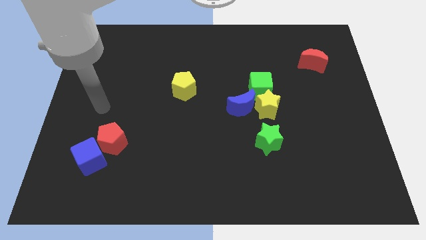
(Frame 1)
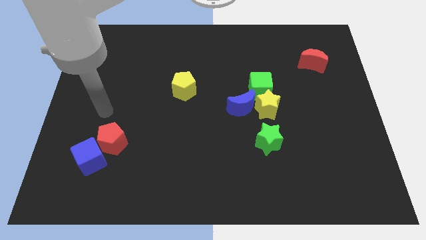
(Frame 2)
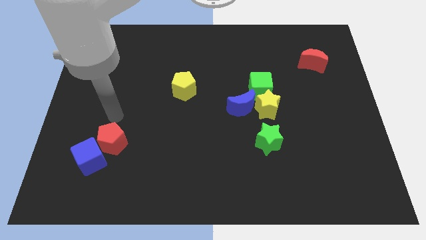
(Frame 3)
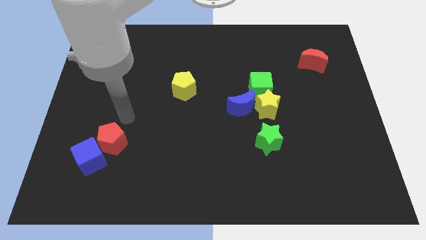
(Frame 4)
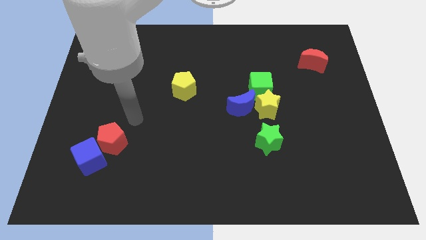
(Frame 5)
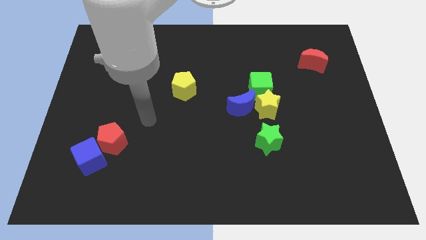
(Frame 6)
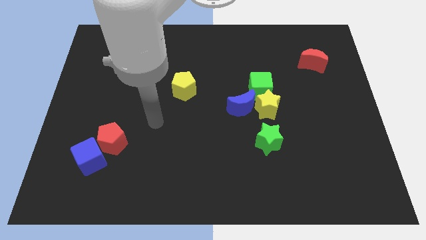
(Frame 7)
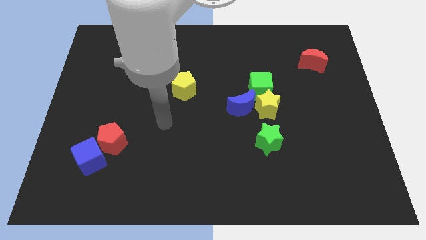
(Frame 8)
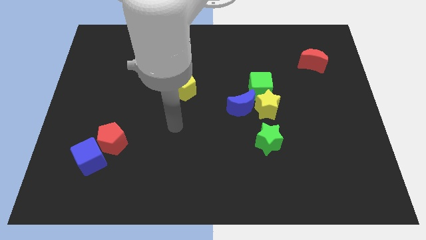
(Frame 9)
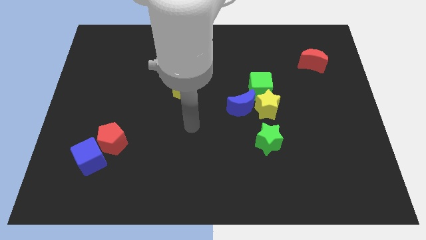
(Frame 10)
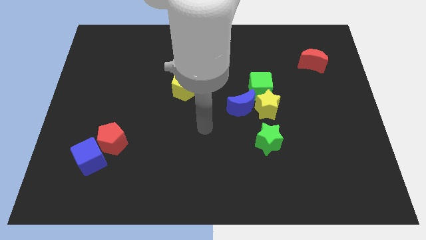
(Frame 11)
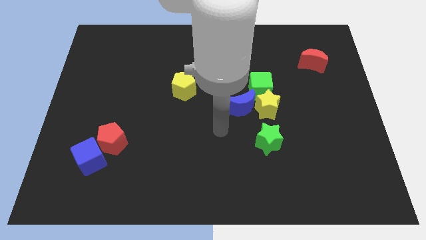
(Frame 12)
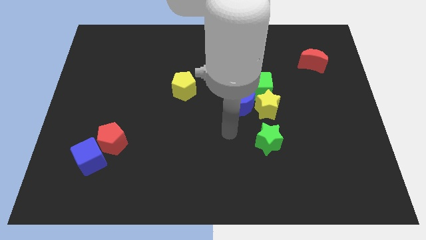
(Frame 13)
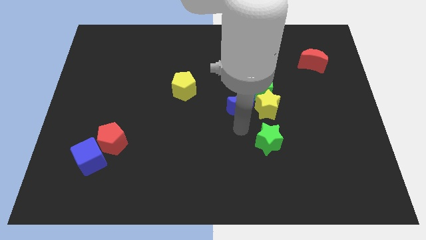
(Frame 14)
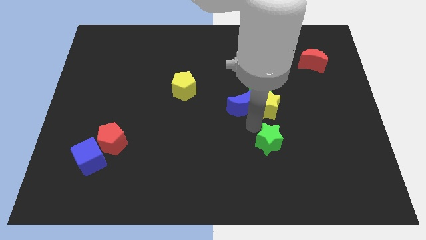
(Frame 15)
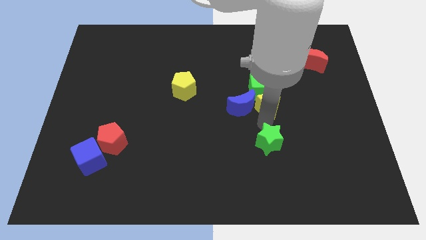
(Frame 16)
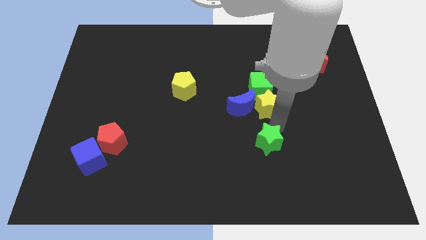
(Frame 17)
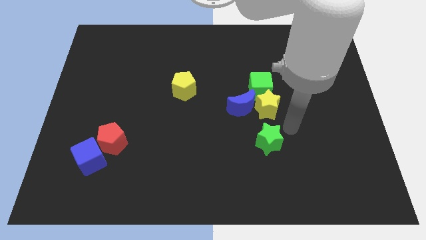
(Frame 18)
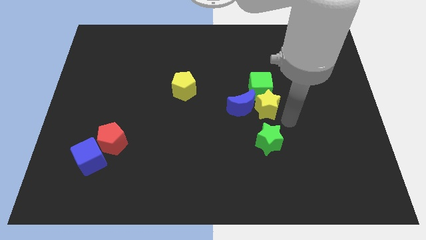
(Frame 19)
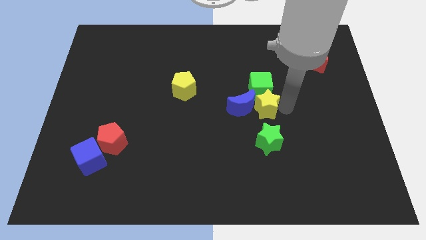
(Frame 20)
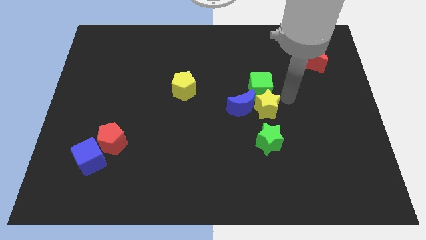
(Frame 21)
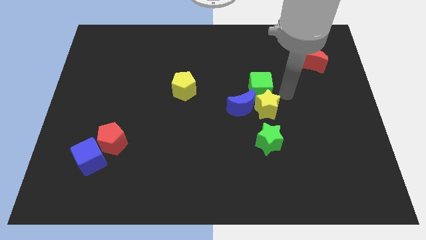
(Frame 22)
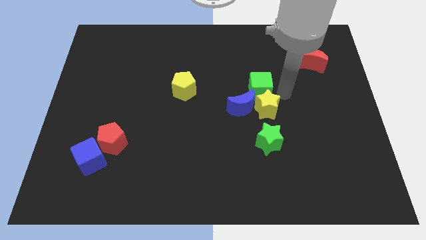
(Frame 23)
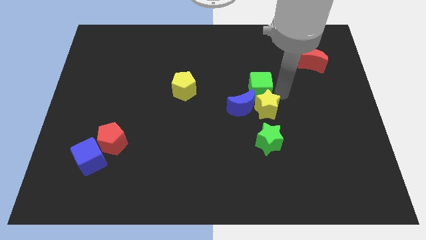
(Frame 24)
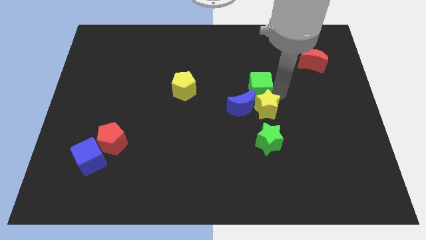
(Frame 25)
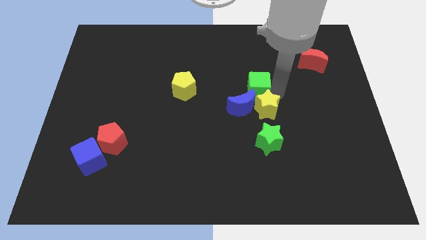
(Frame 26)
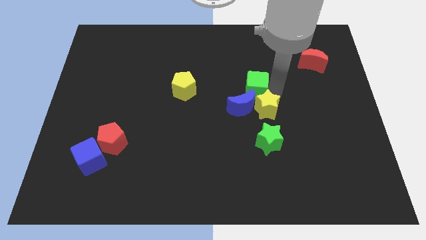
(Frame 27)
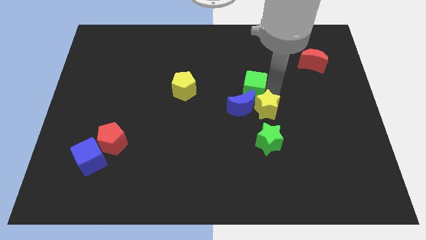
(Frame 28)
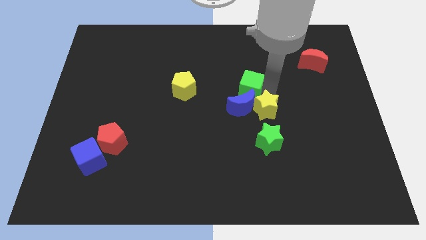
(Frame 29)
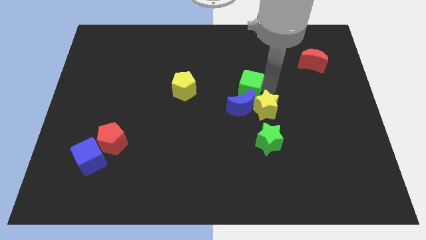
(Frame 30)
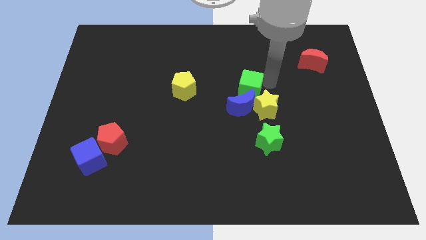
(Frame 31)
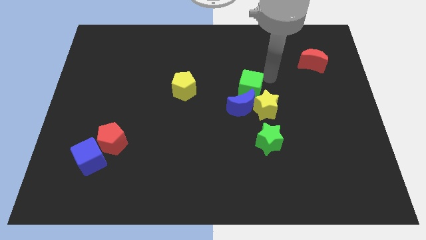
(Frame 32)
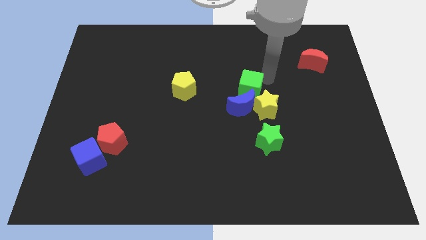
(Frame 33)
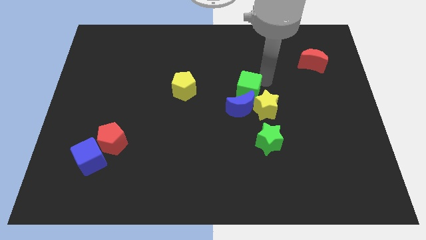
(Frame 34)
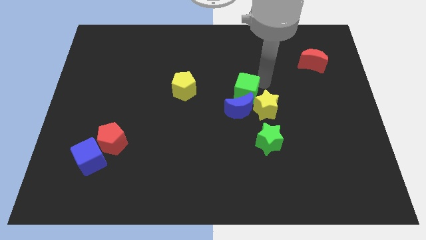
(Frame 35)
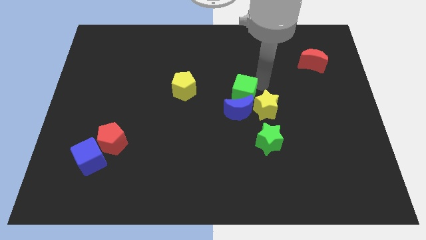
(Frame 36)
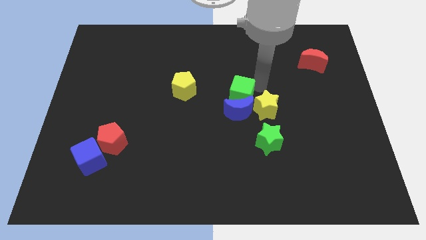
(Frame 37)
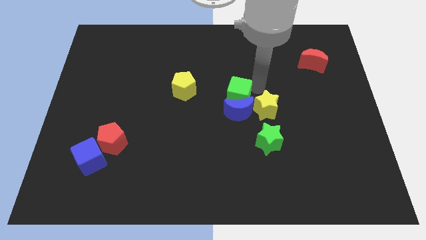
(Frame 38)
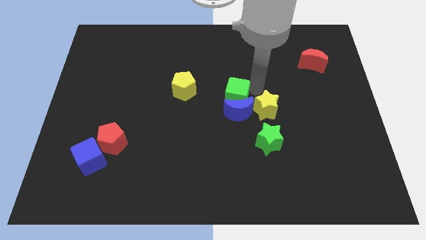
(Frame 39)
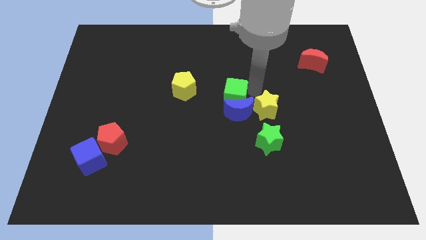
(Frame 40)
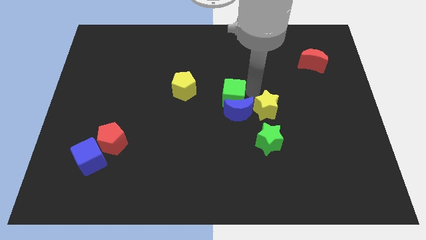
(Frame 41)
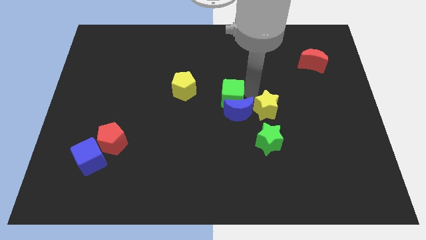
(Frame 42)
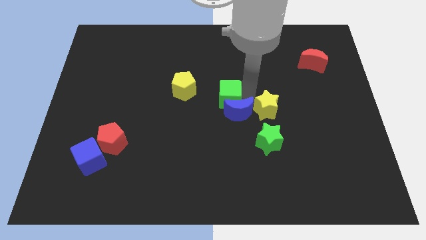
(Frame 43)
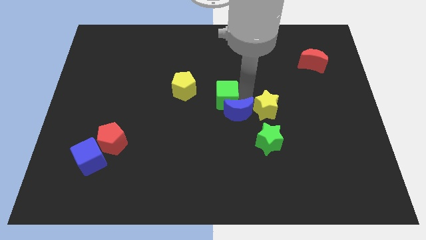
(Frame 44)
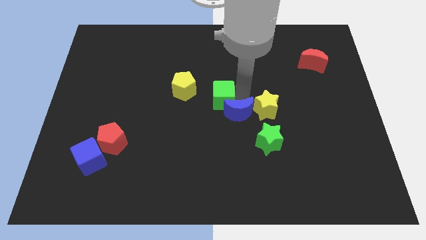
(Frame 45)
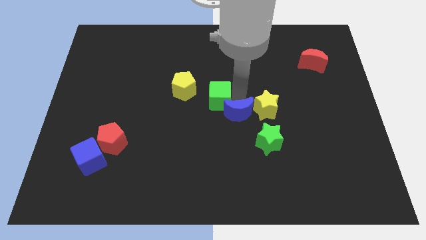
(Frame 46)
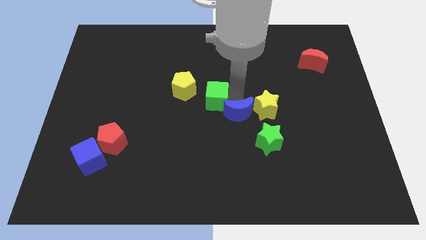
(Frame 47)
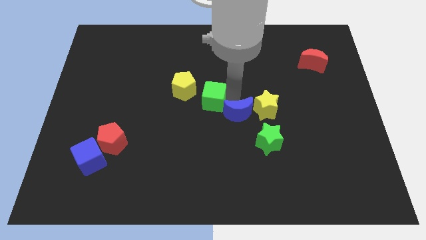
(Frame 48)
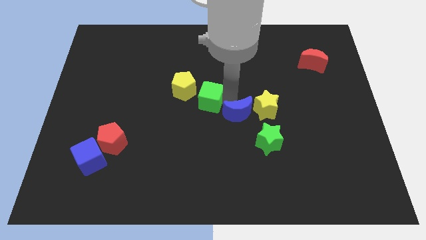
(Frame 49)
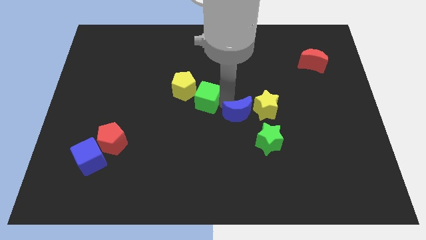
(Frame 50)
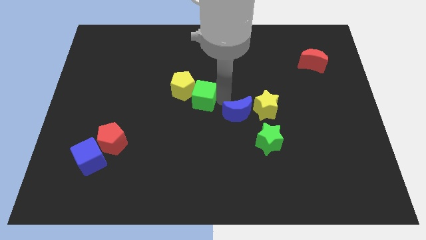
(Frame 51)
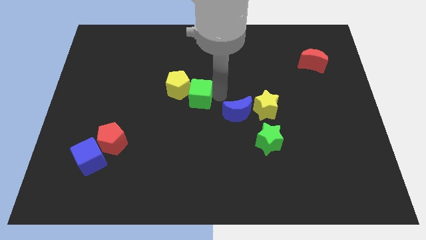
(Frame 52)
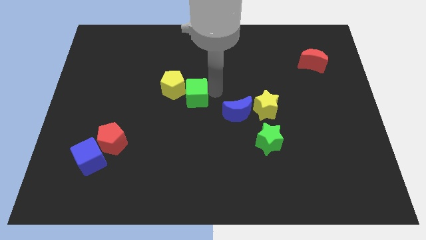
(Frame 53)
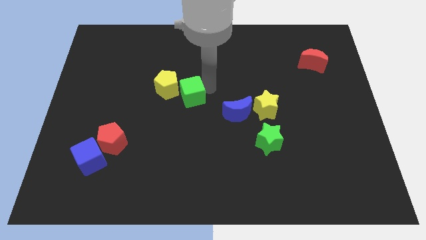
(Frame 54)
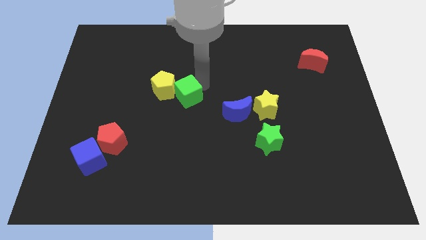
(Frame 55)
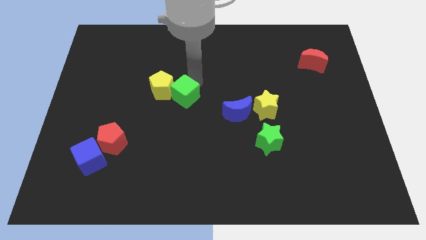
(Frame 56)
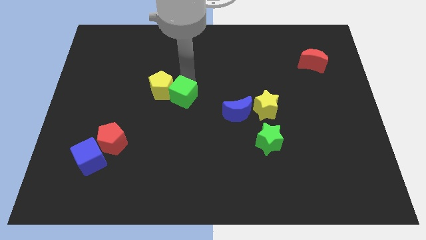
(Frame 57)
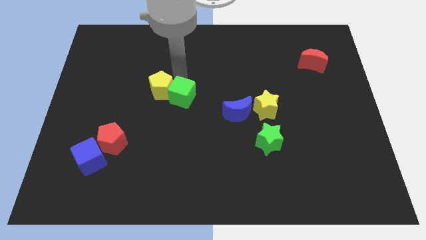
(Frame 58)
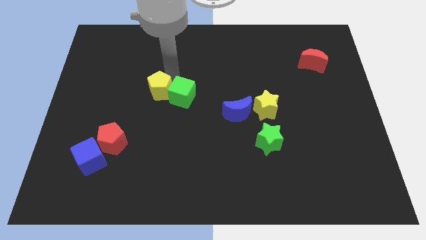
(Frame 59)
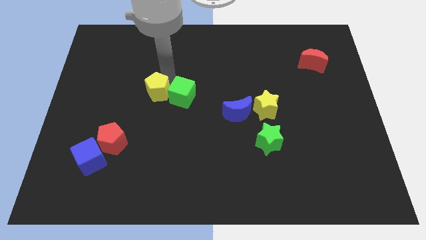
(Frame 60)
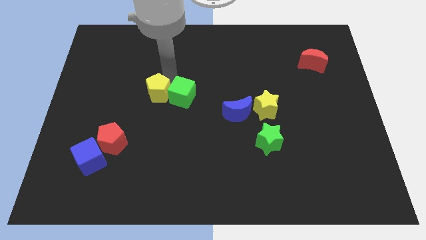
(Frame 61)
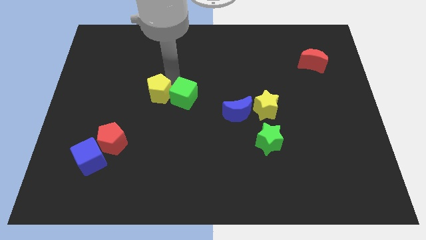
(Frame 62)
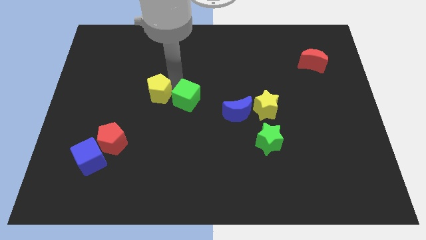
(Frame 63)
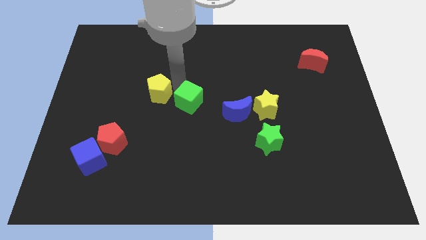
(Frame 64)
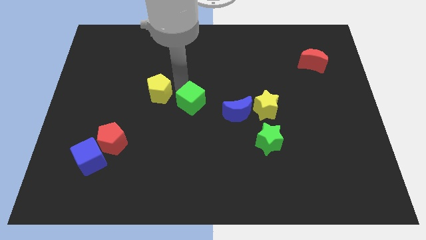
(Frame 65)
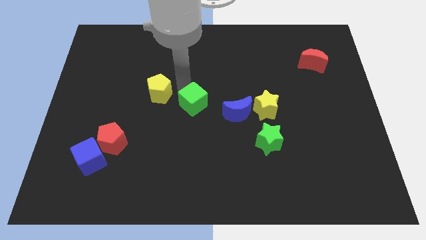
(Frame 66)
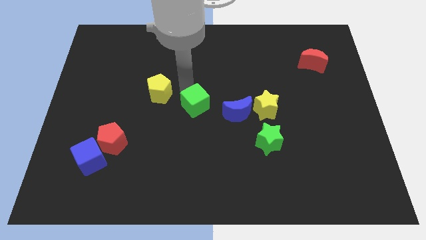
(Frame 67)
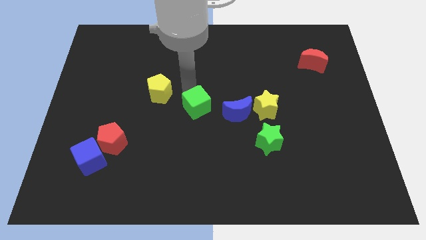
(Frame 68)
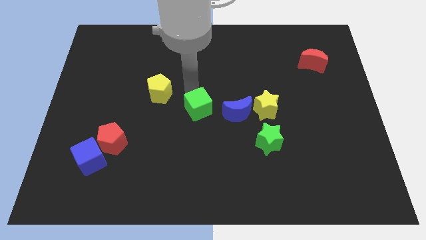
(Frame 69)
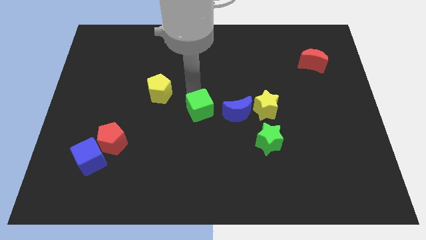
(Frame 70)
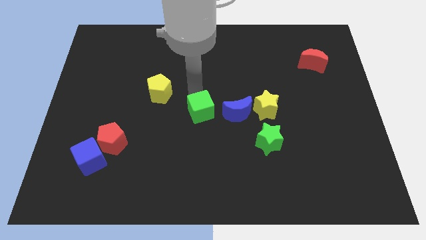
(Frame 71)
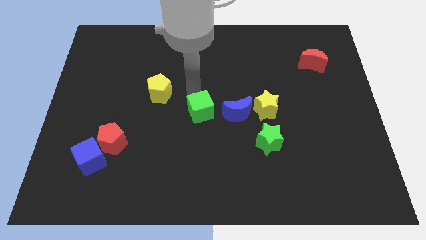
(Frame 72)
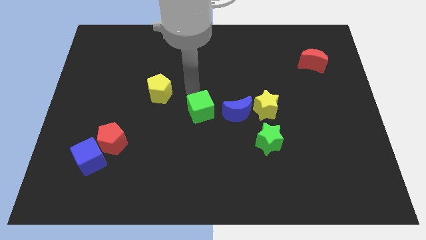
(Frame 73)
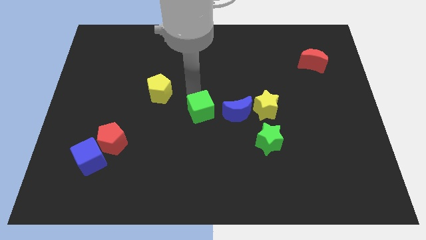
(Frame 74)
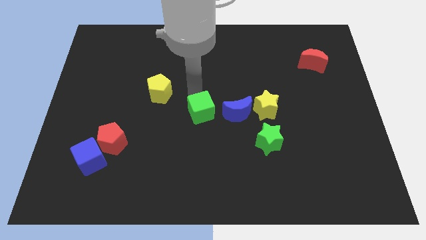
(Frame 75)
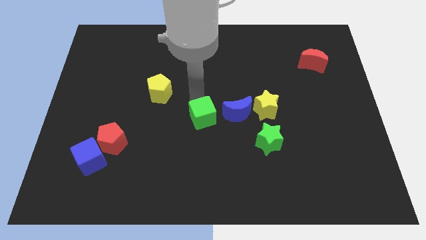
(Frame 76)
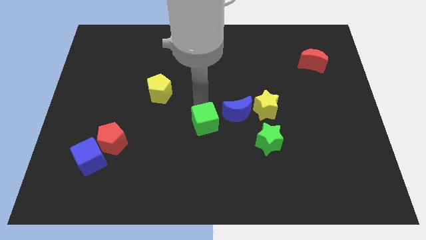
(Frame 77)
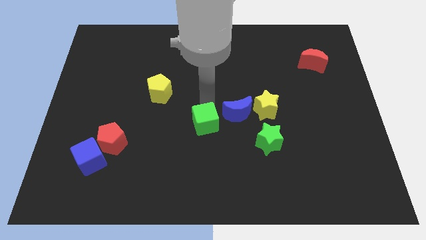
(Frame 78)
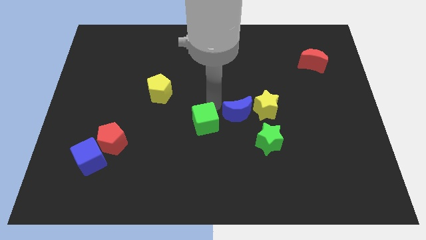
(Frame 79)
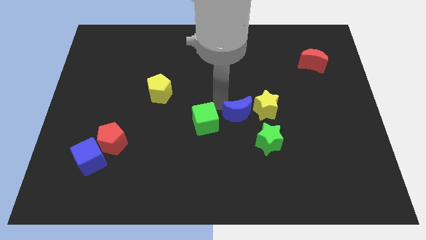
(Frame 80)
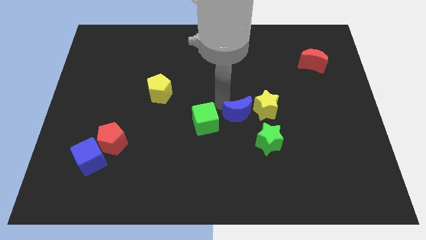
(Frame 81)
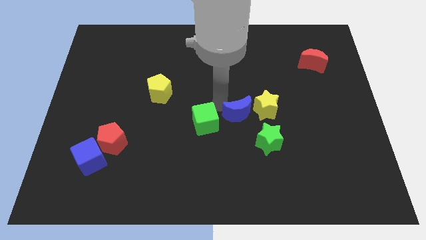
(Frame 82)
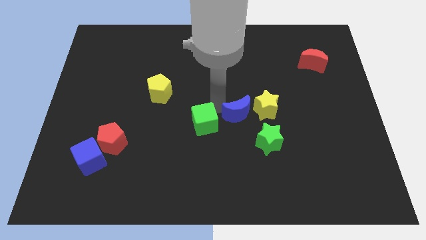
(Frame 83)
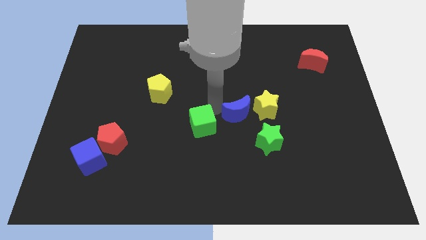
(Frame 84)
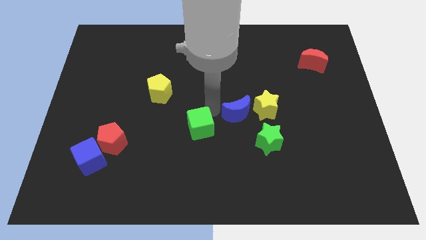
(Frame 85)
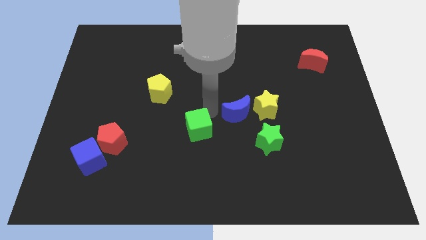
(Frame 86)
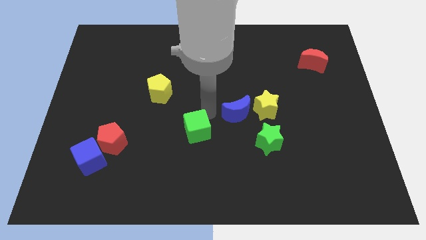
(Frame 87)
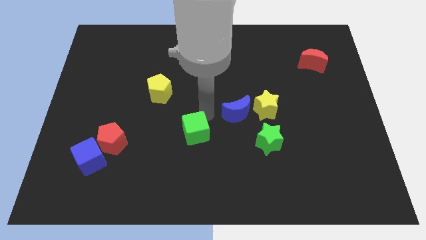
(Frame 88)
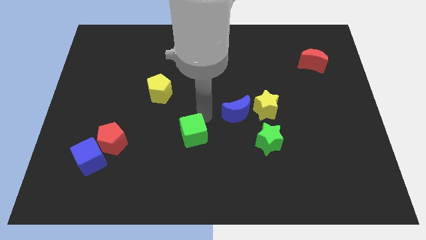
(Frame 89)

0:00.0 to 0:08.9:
move the green cube downwards and left
